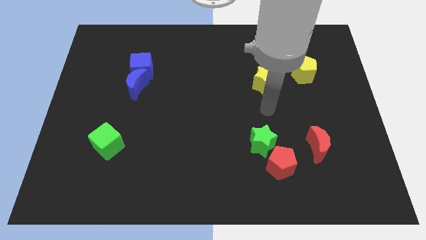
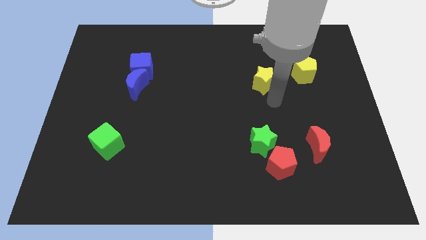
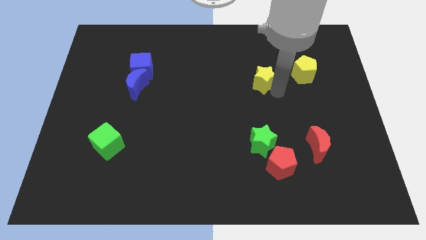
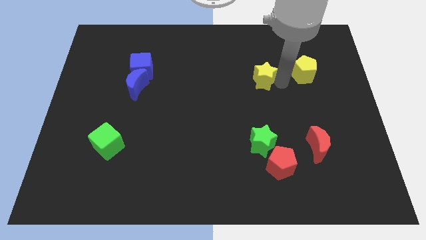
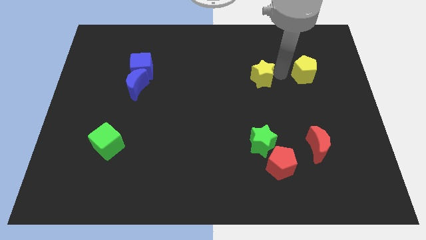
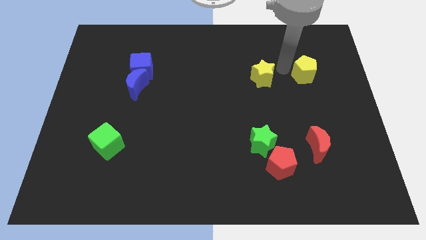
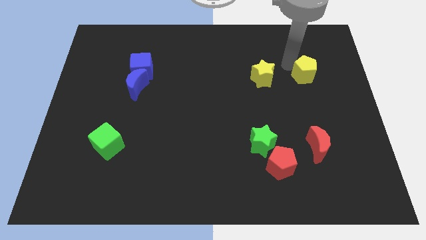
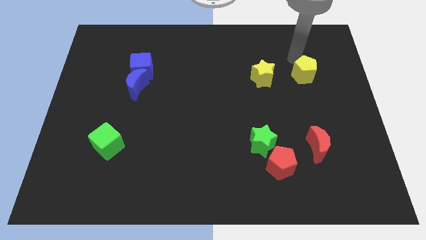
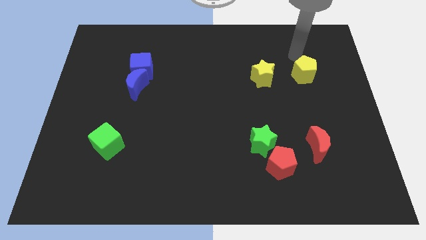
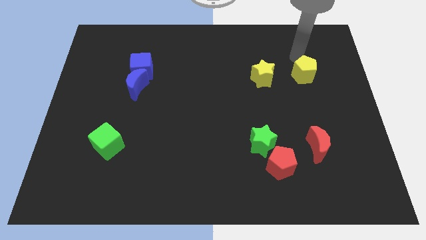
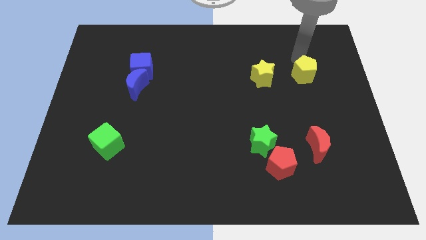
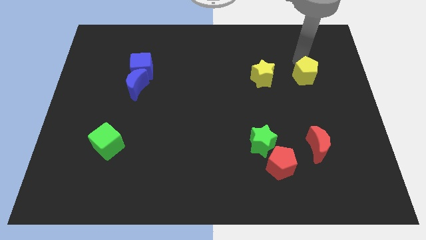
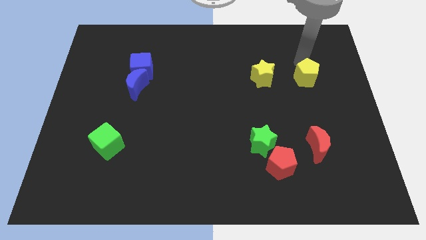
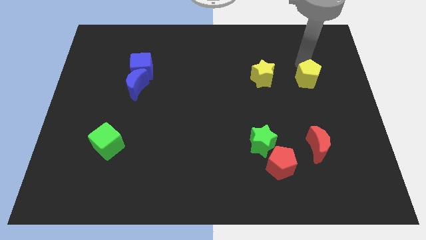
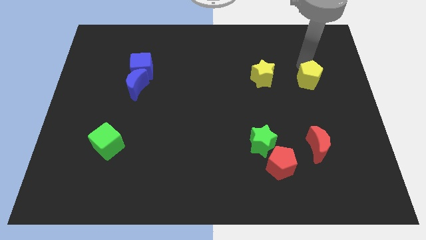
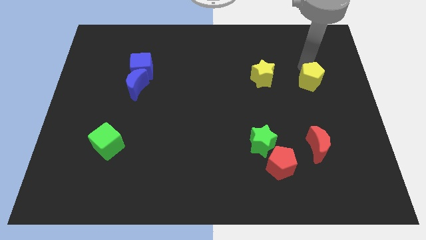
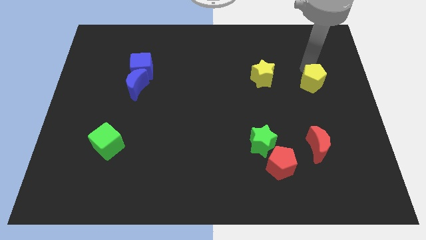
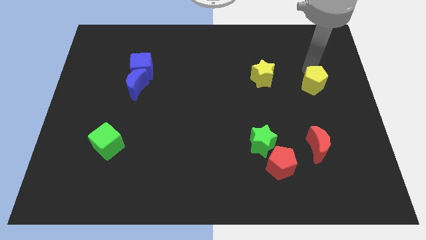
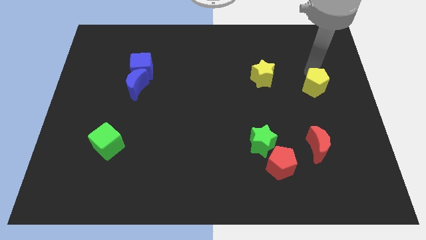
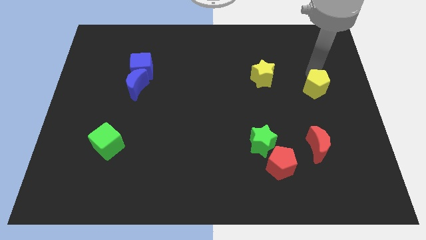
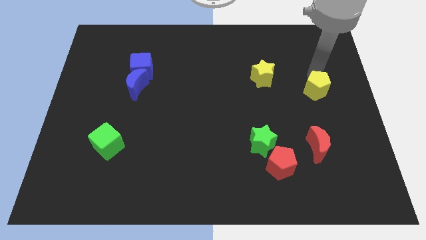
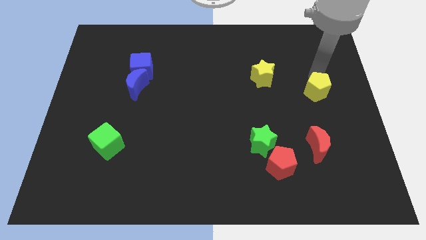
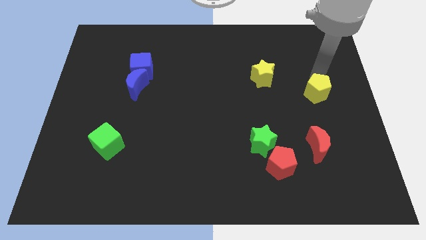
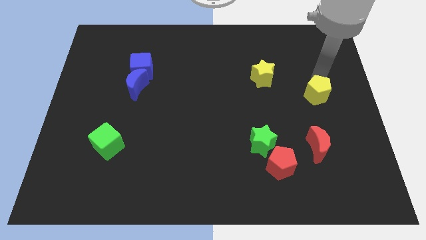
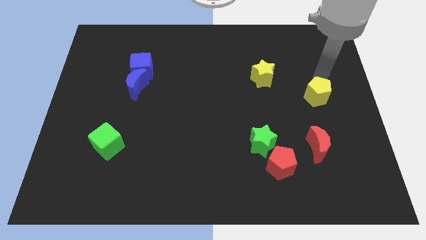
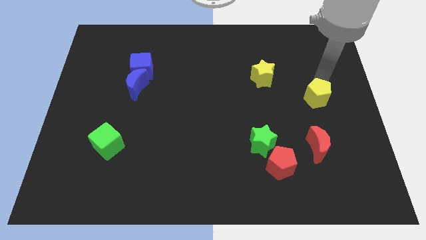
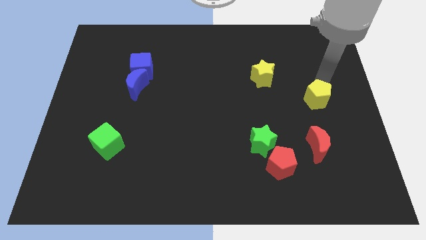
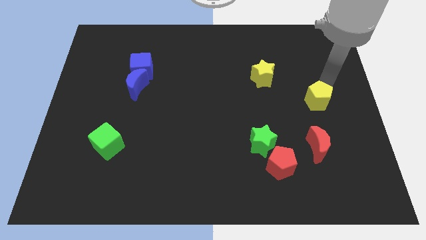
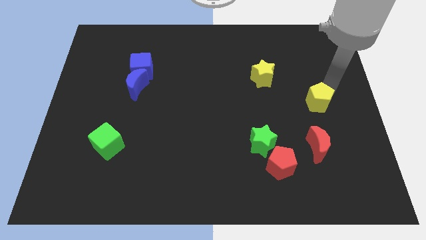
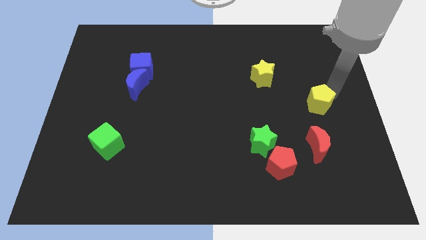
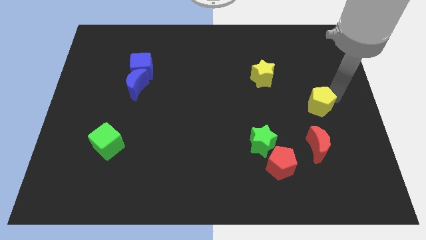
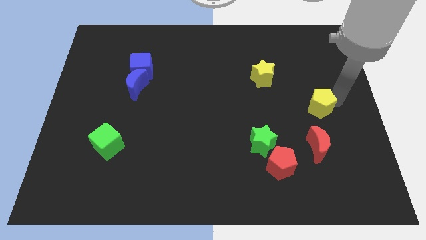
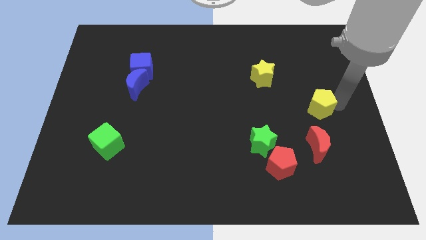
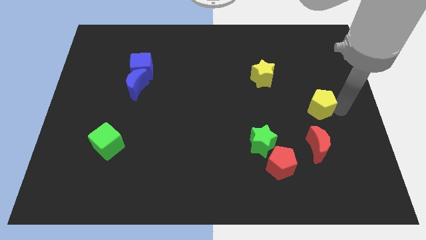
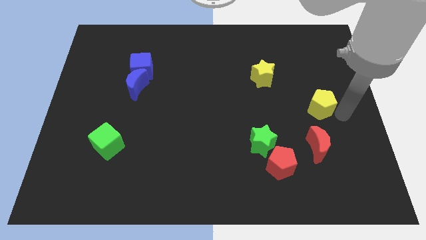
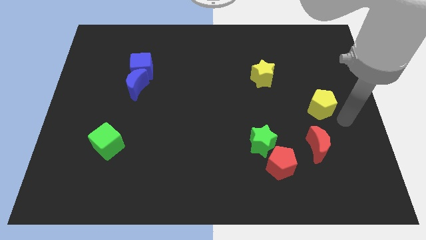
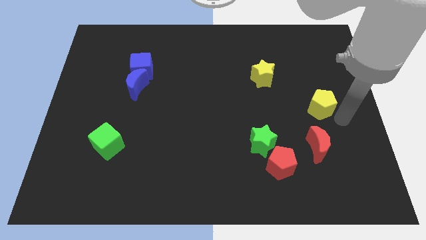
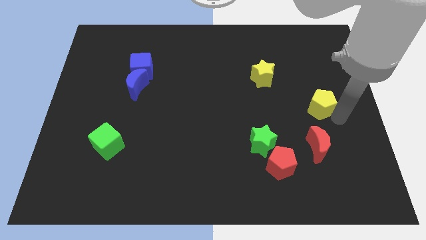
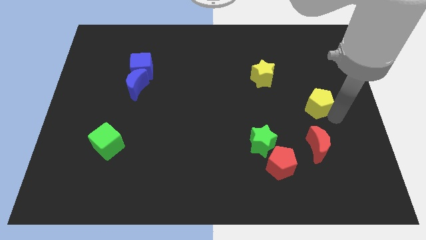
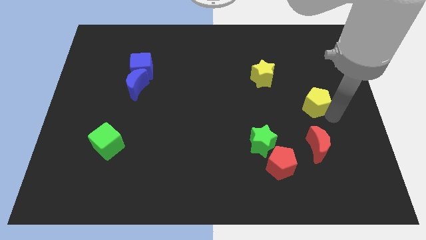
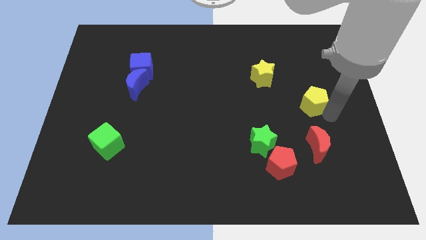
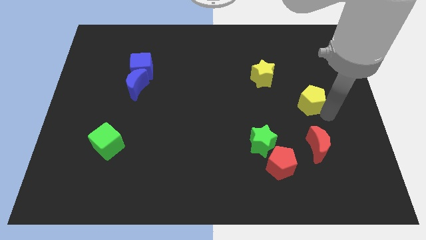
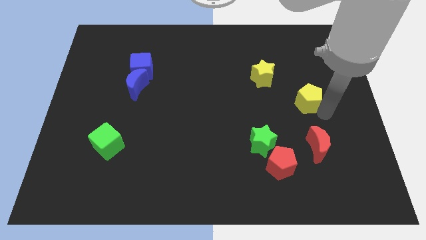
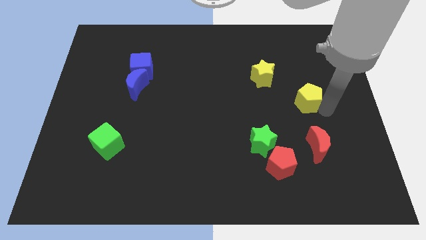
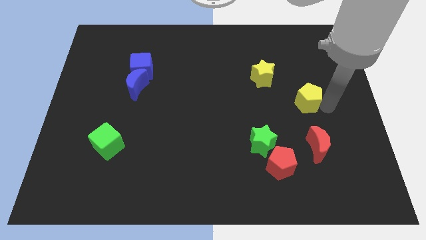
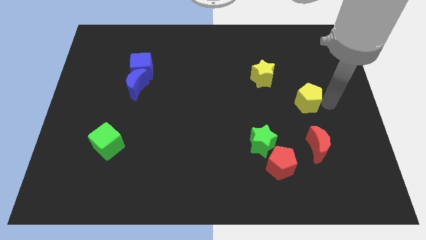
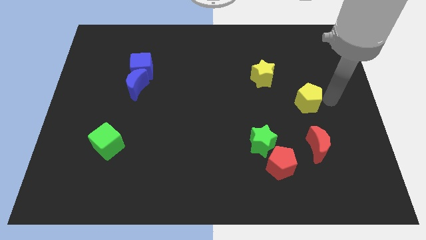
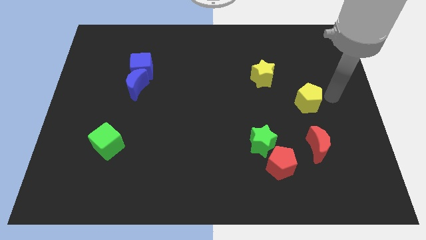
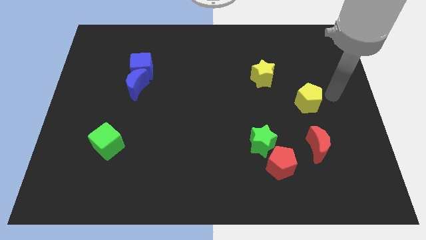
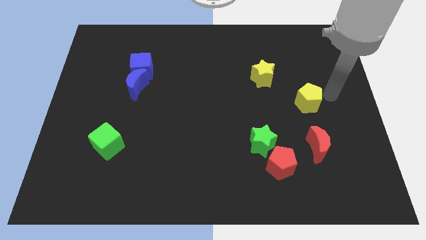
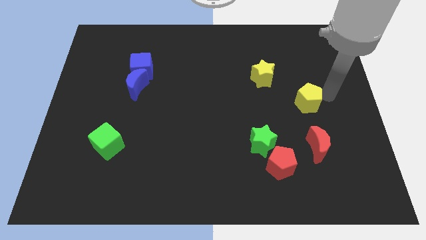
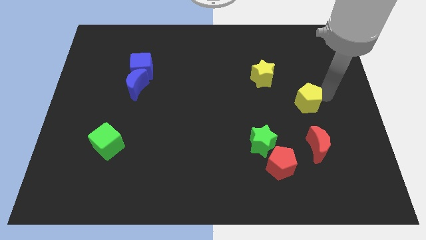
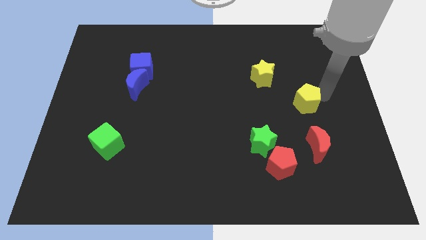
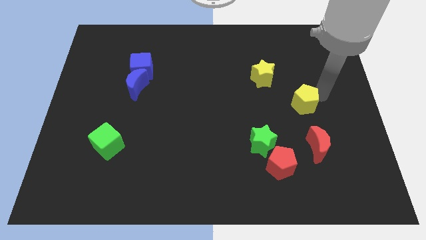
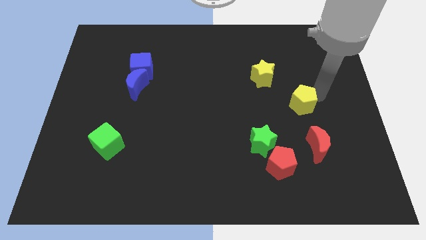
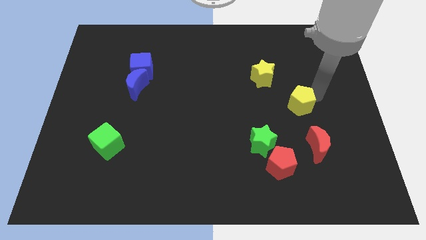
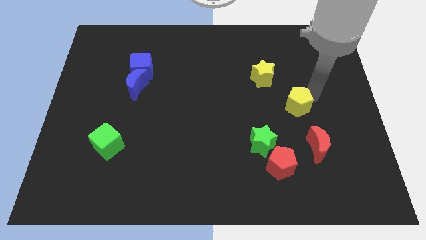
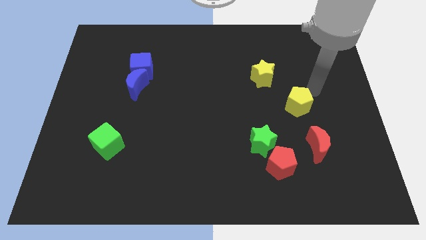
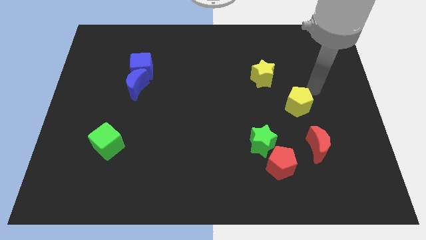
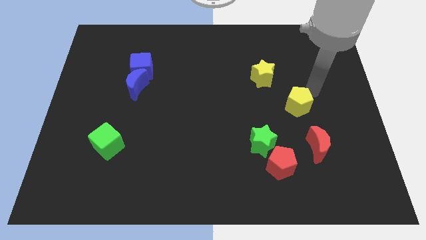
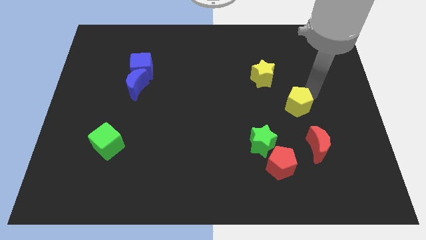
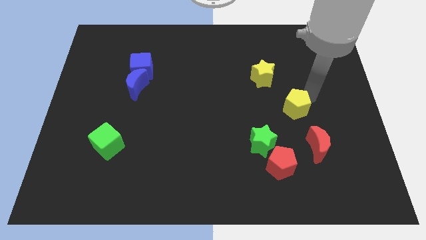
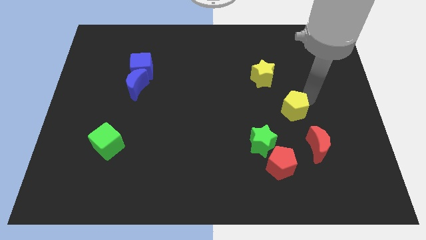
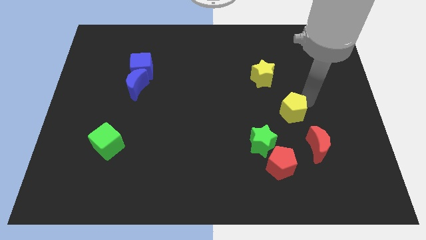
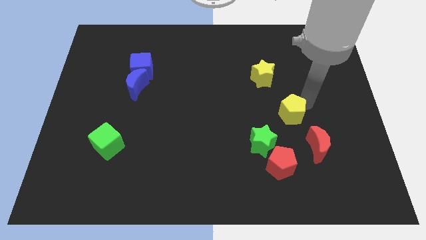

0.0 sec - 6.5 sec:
put the yellow pentagon to the top side of the red pentagon

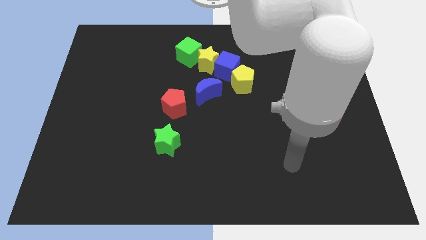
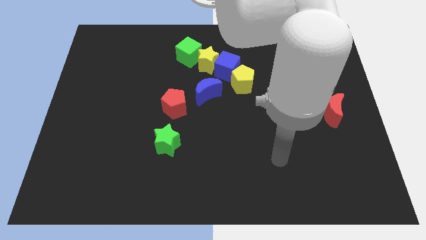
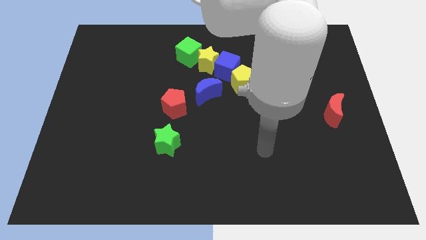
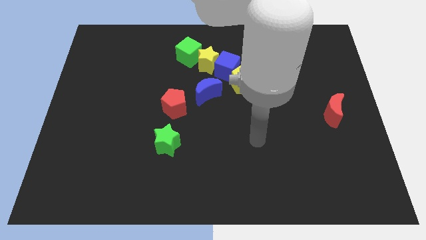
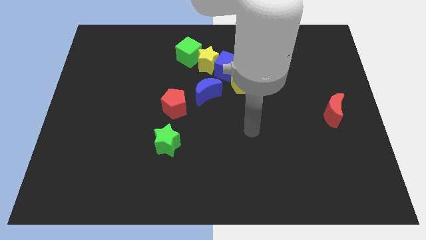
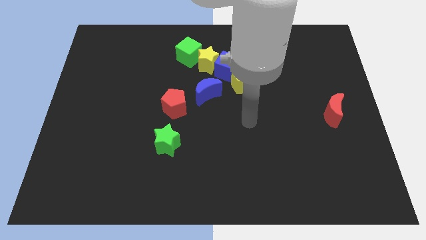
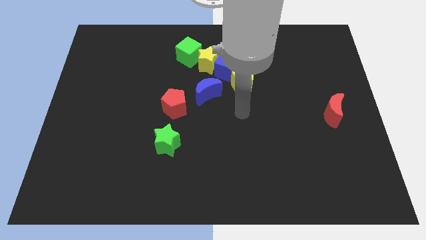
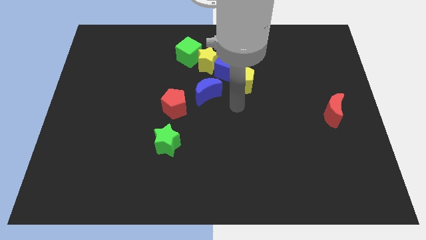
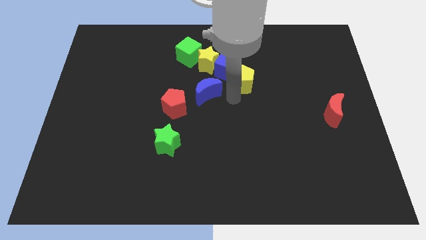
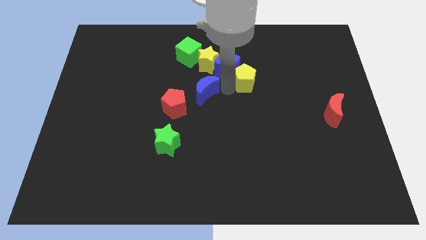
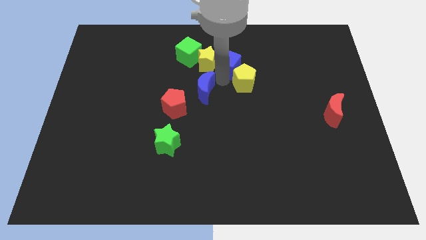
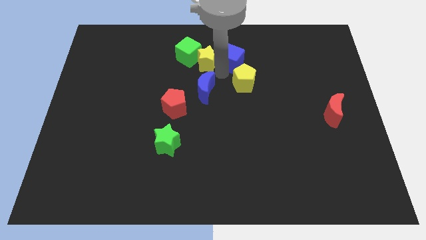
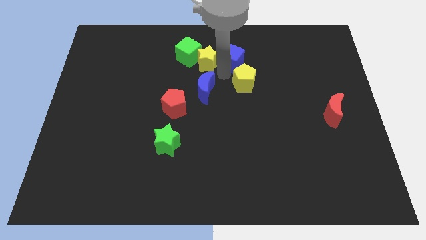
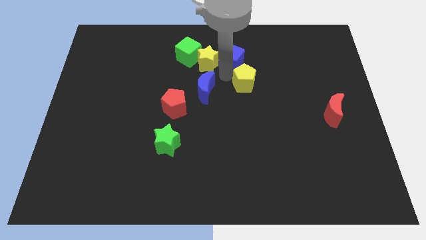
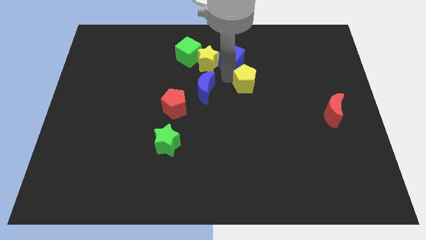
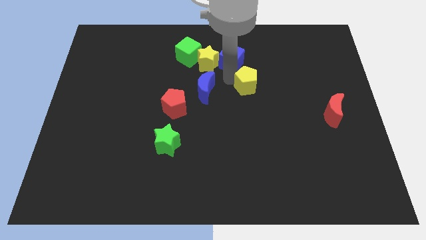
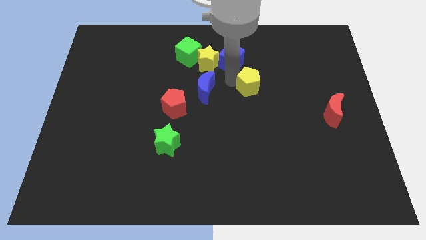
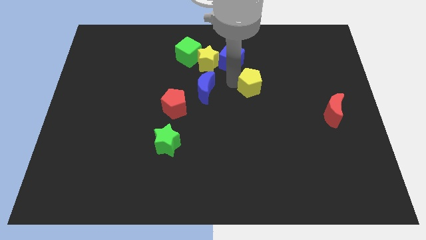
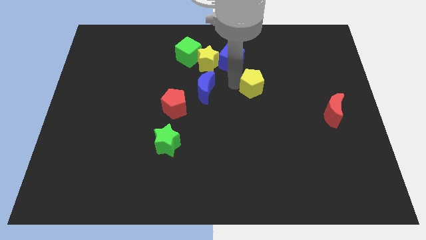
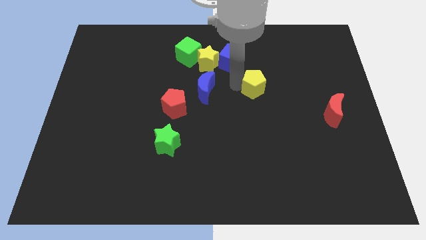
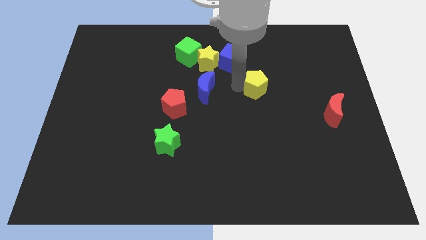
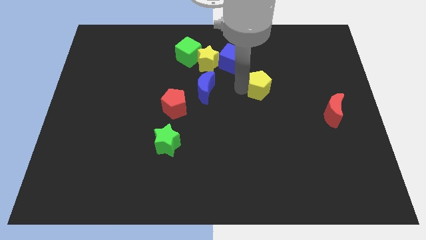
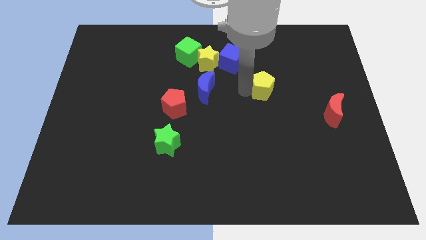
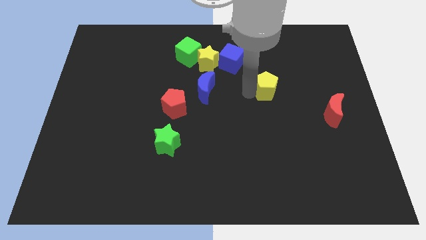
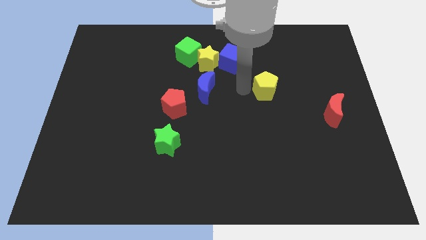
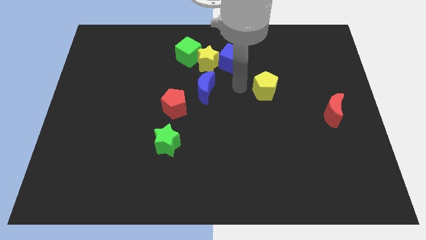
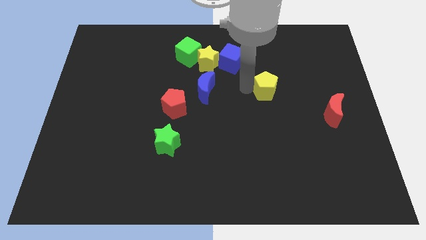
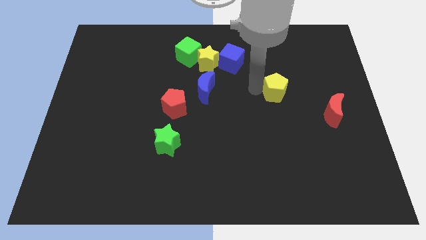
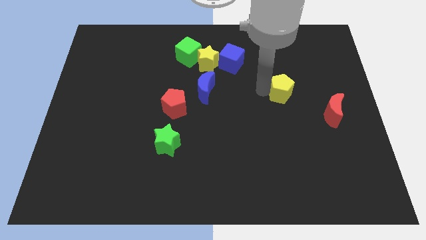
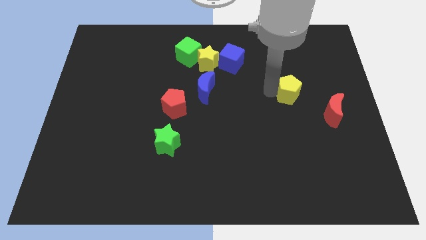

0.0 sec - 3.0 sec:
slide the yellow pentagon to the top left of the red moon
